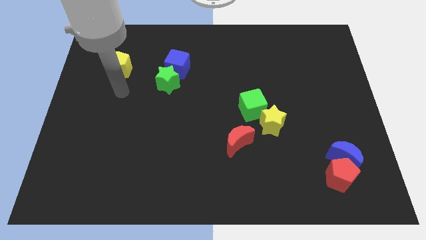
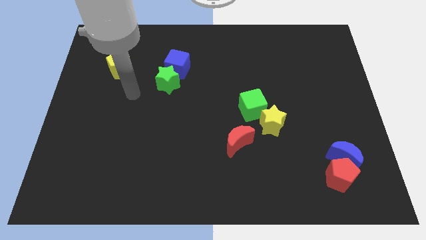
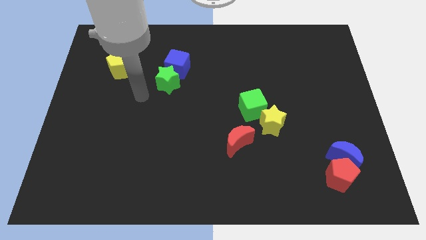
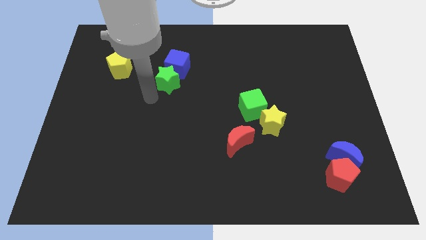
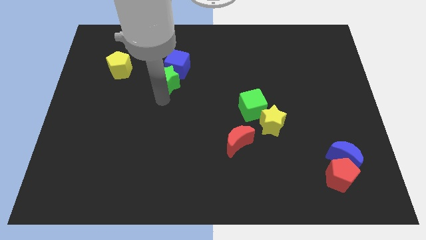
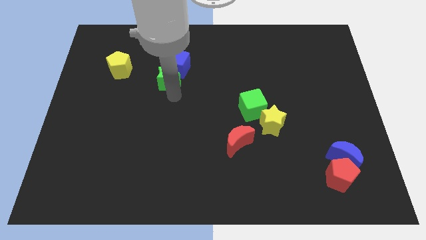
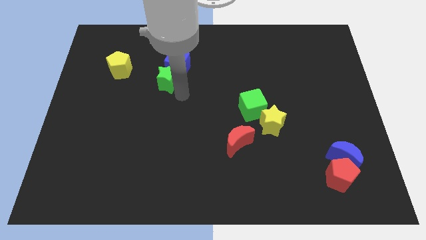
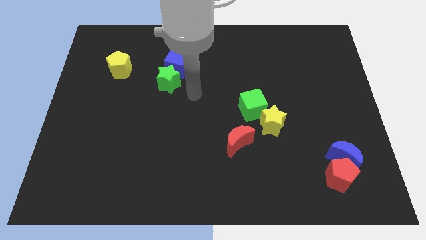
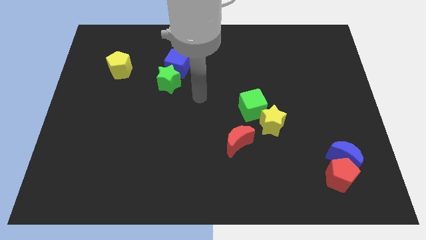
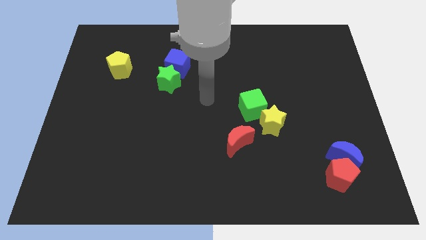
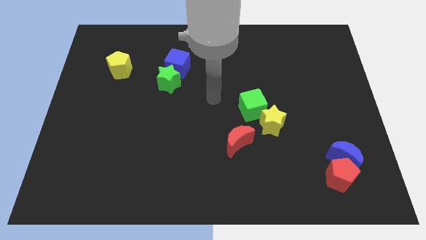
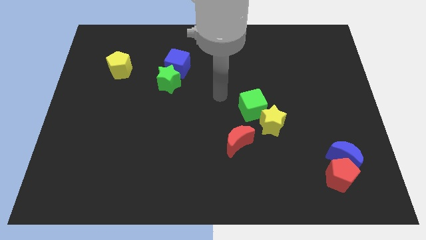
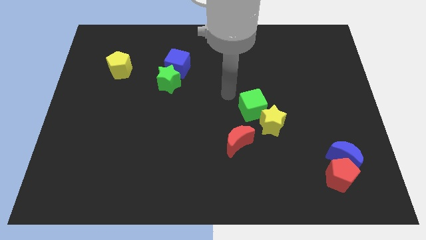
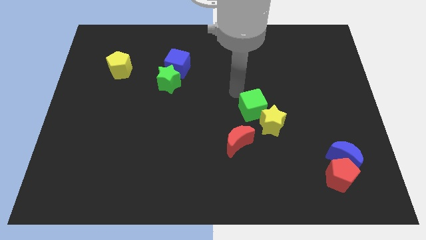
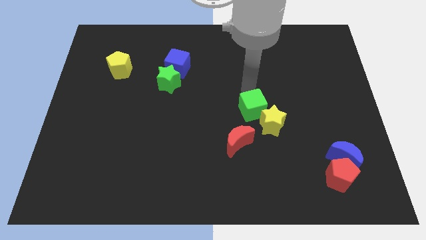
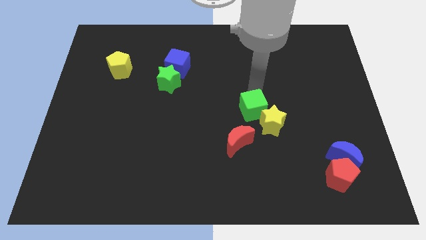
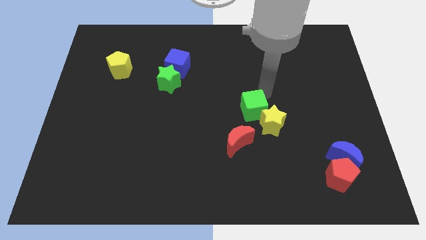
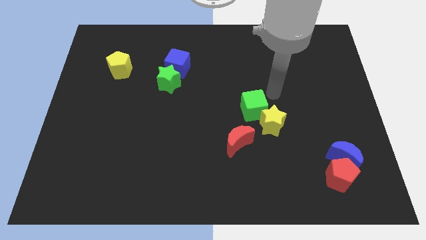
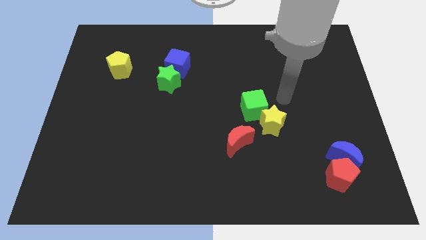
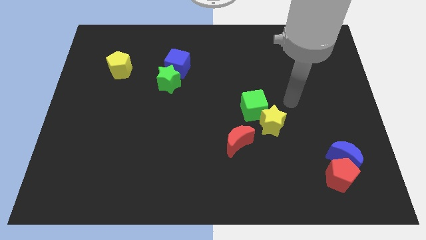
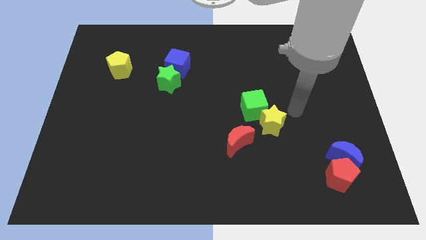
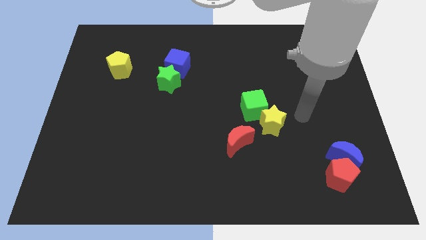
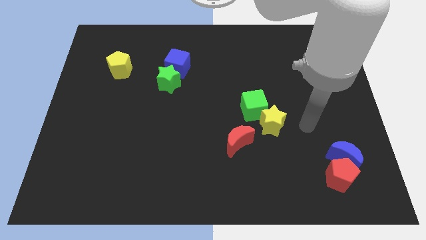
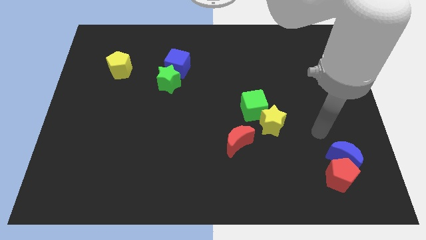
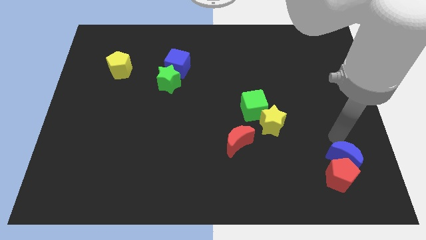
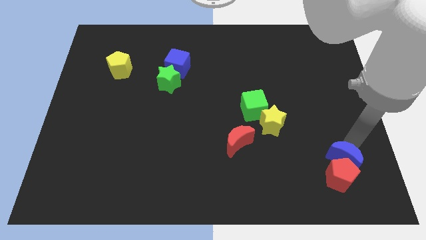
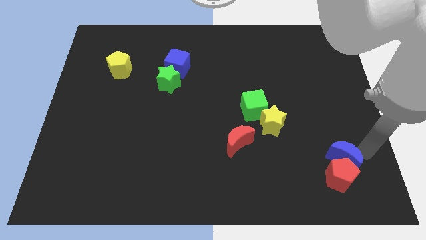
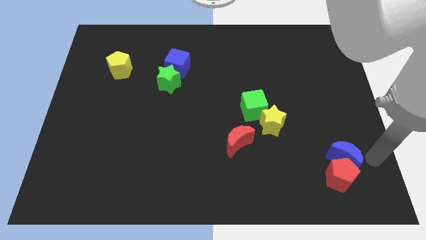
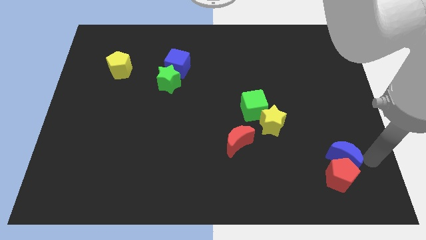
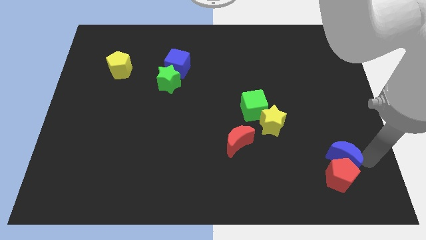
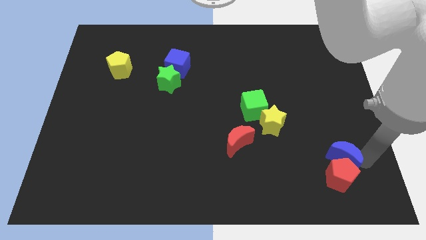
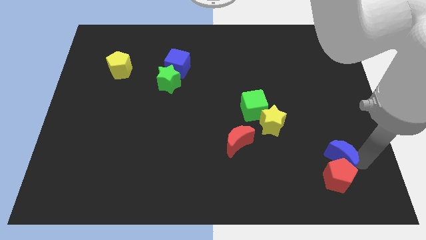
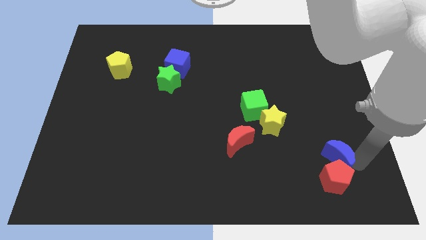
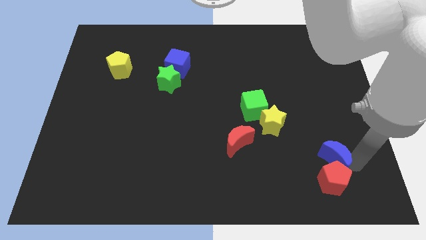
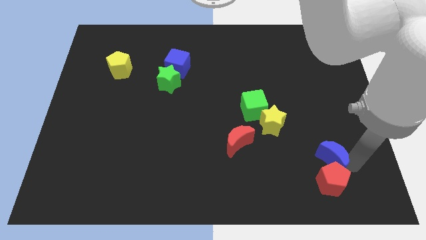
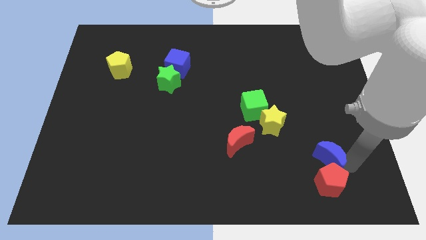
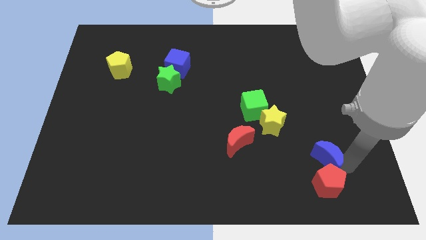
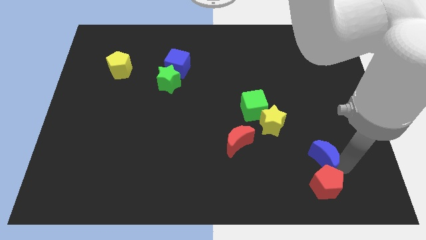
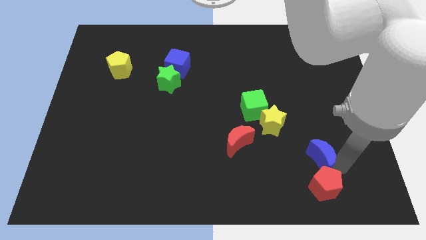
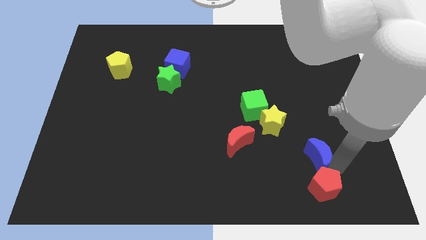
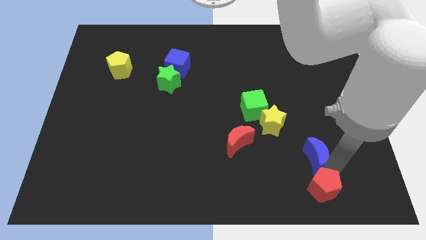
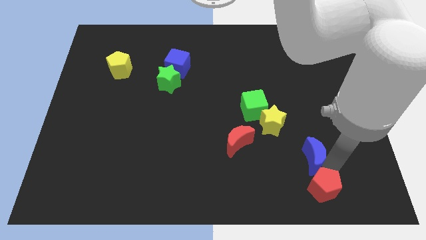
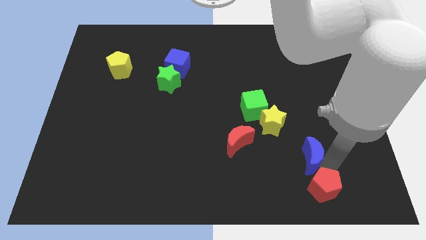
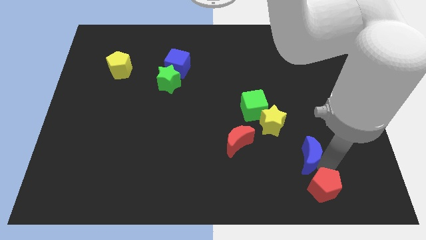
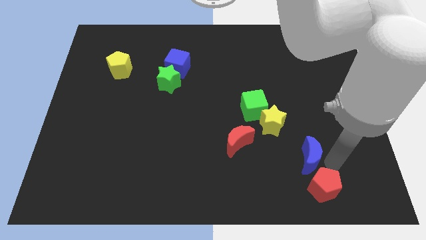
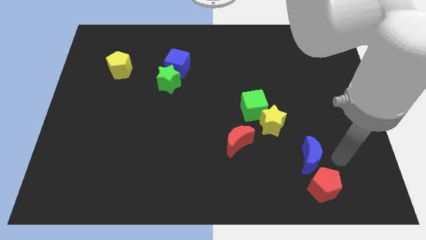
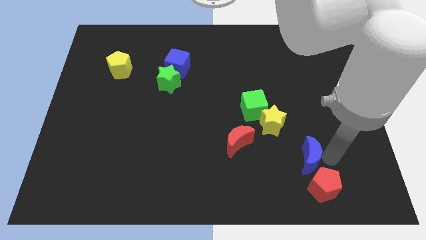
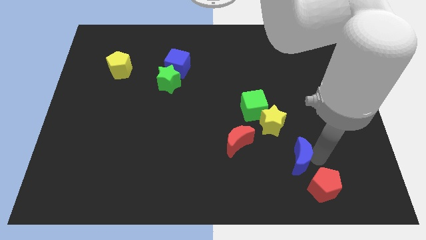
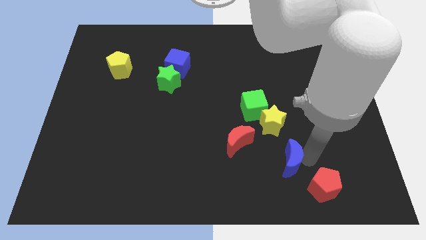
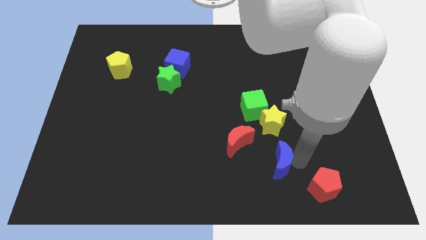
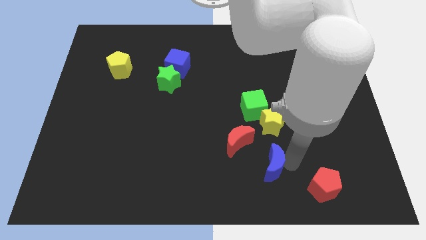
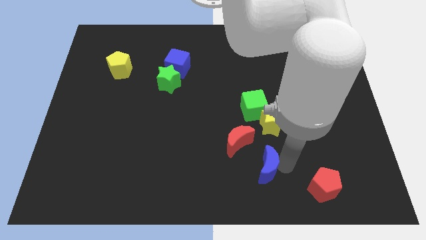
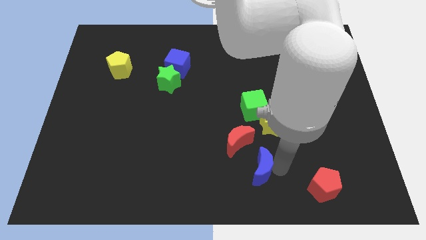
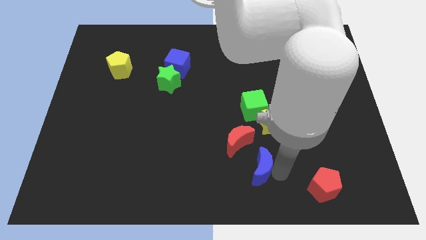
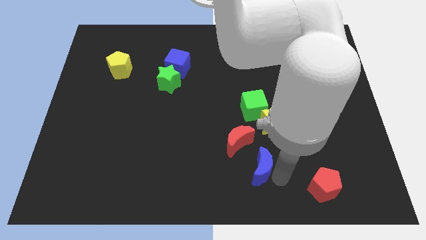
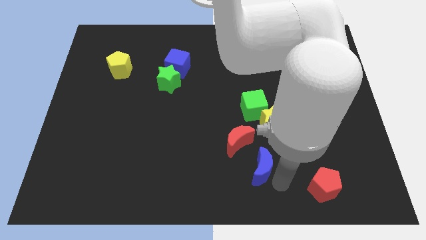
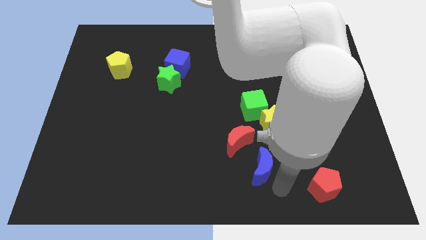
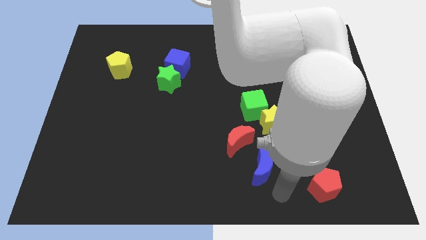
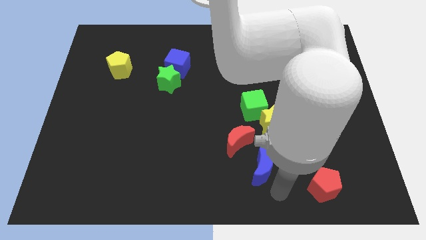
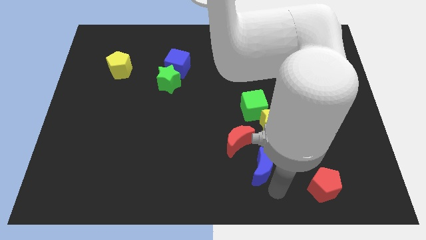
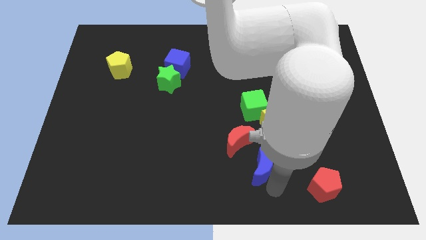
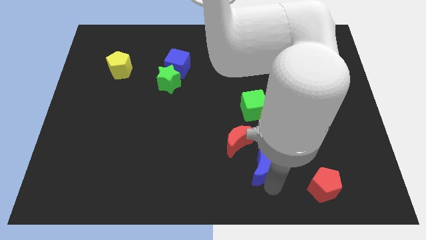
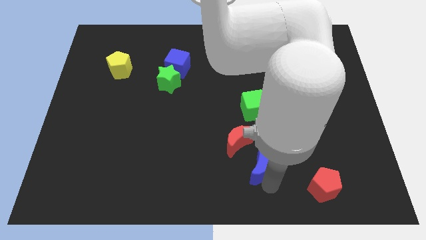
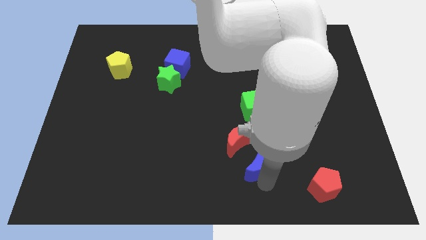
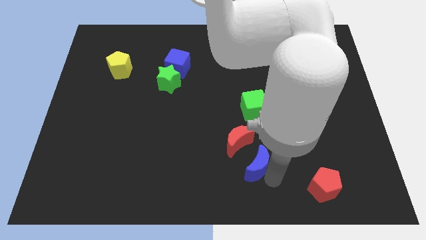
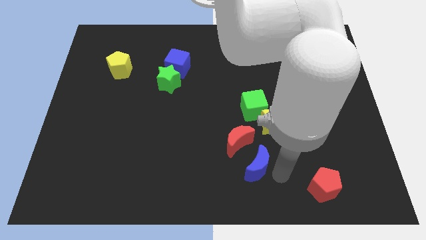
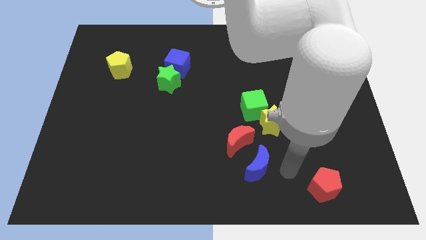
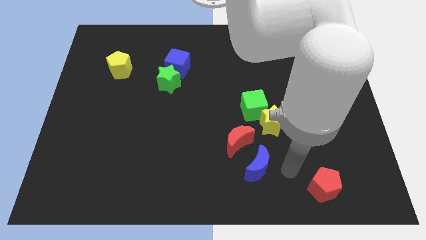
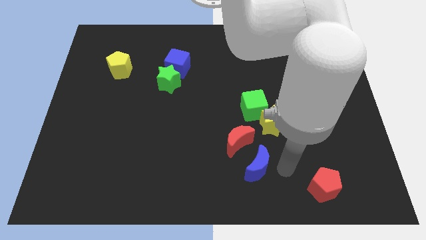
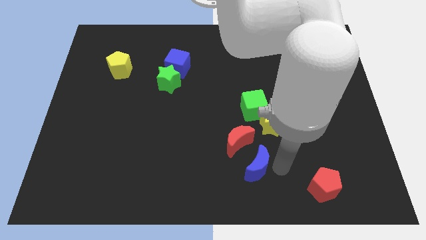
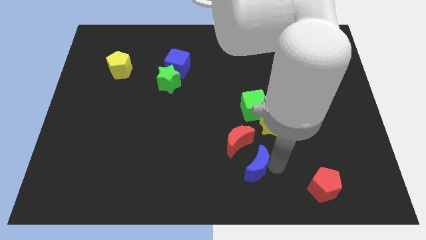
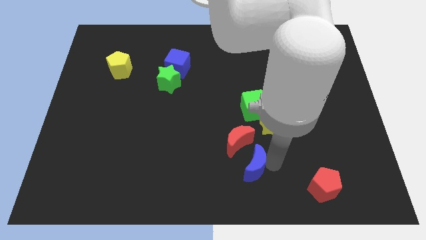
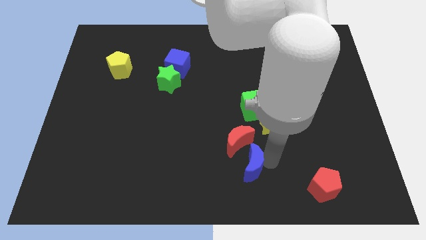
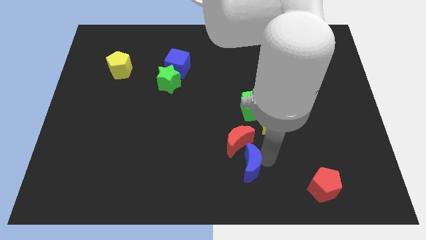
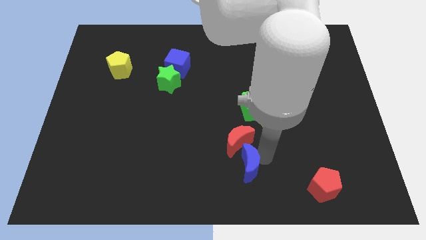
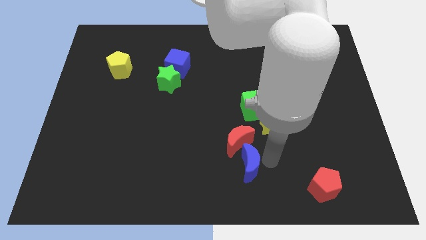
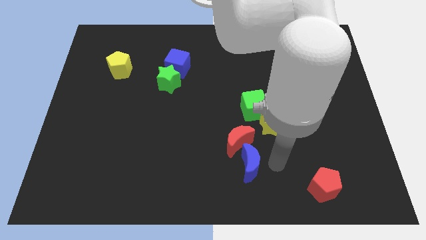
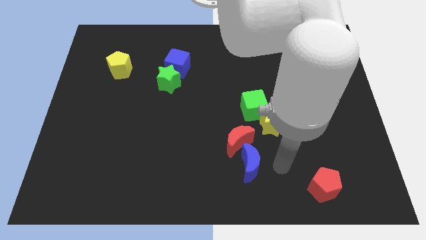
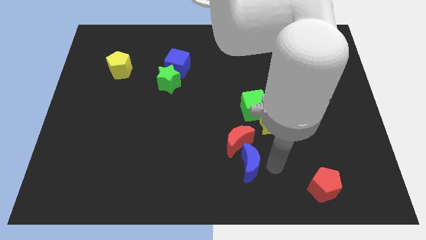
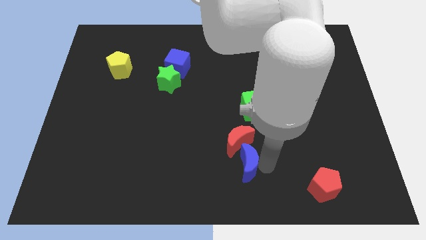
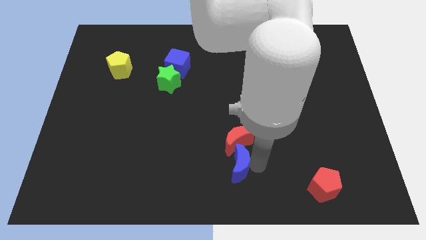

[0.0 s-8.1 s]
slide the blue moon diagonally down and to the left of the red moon
